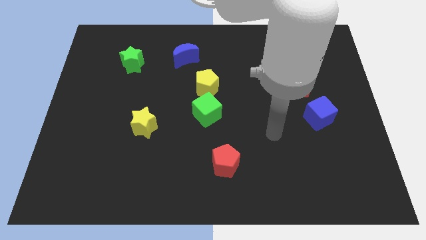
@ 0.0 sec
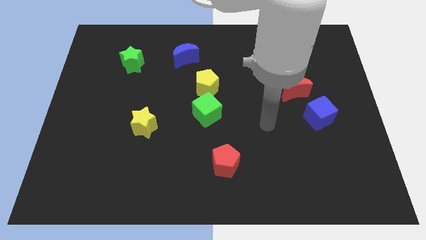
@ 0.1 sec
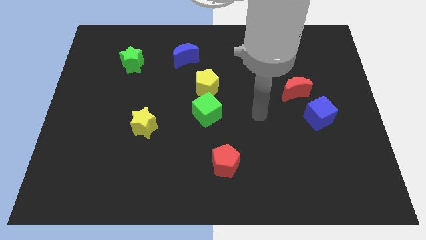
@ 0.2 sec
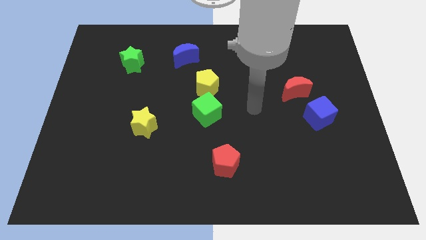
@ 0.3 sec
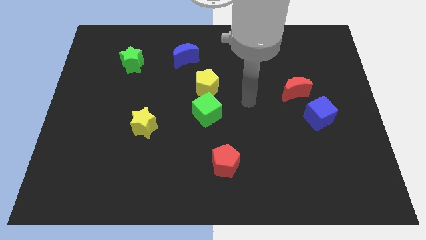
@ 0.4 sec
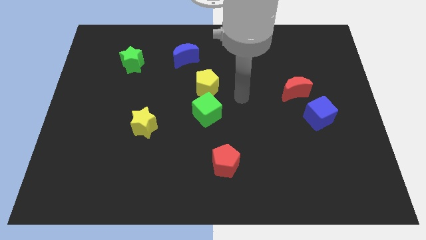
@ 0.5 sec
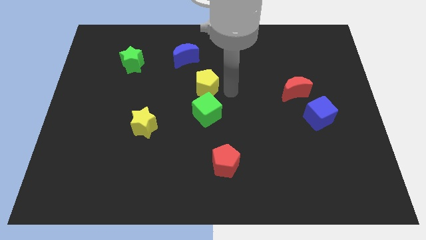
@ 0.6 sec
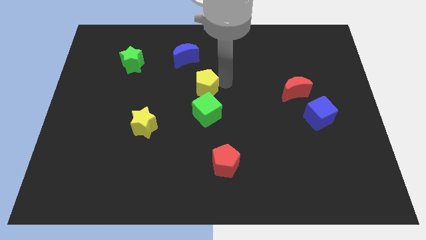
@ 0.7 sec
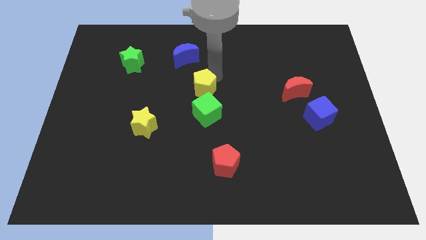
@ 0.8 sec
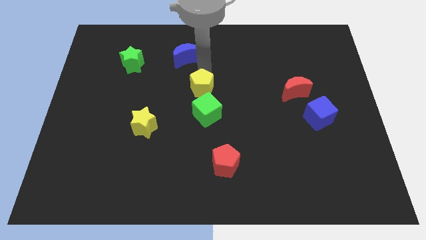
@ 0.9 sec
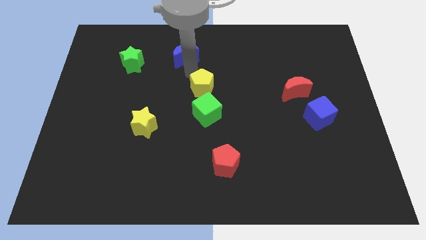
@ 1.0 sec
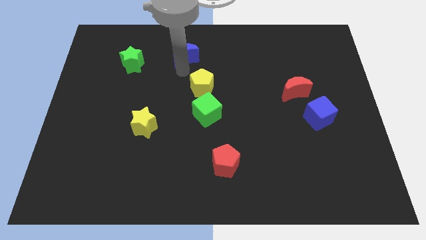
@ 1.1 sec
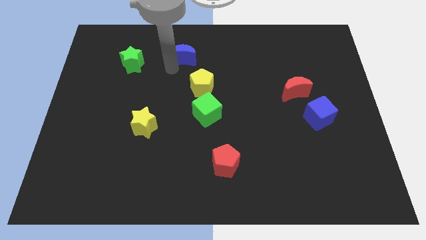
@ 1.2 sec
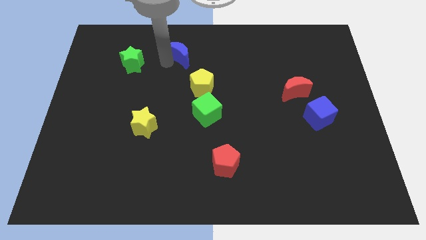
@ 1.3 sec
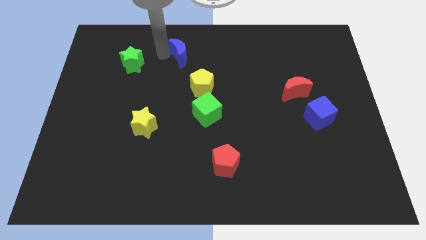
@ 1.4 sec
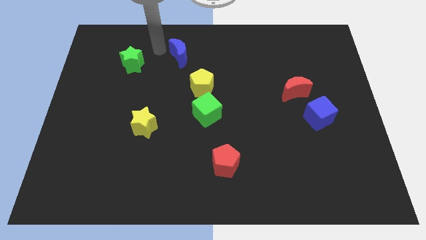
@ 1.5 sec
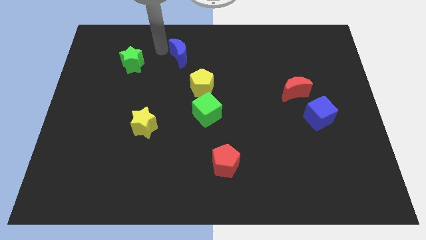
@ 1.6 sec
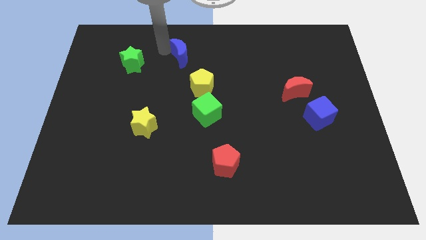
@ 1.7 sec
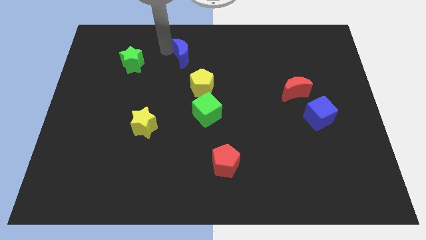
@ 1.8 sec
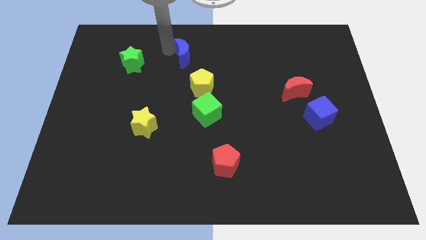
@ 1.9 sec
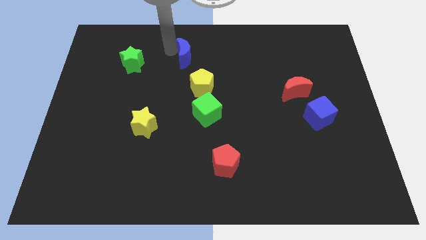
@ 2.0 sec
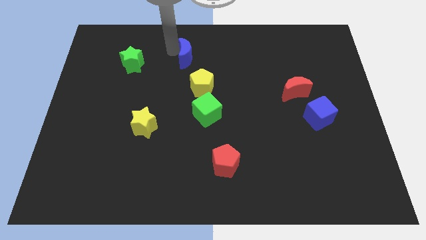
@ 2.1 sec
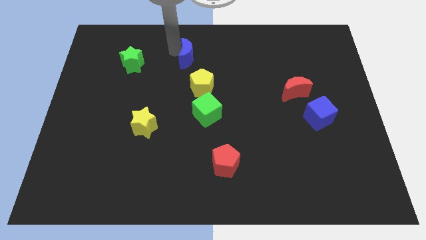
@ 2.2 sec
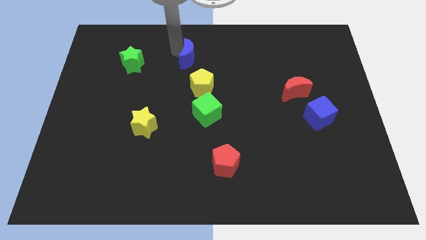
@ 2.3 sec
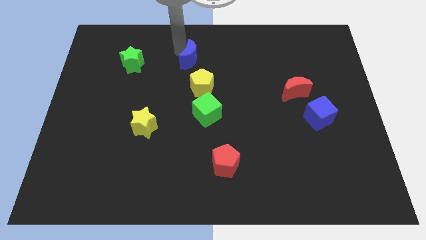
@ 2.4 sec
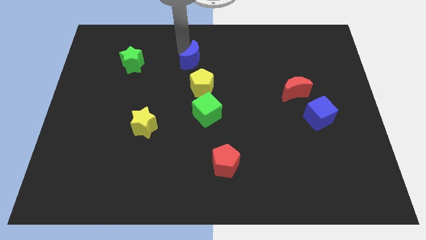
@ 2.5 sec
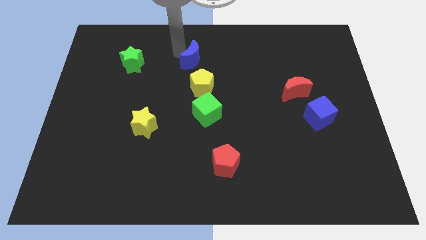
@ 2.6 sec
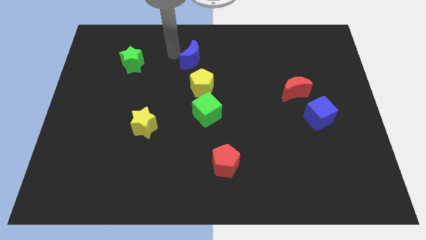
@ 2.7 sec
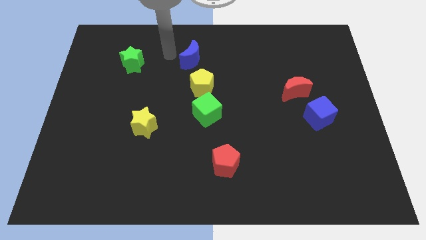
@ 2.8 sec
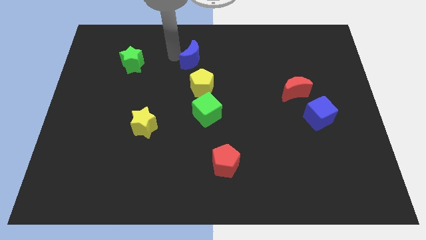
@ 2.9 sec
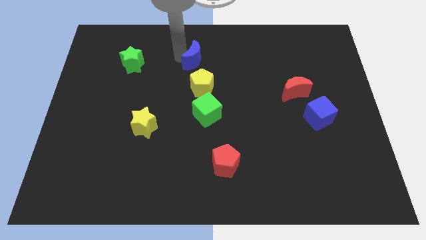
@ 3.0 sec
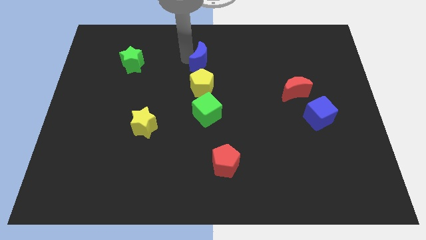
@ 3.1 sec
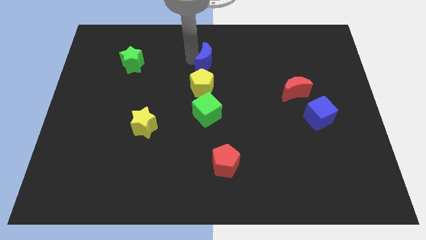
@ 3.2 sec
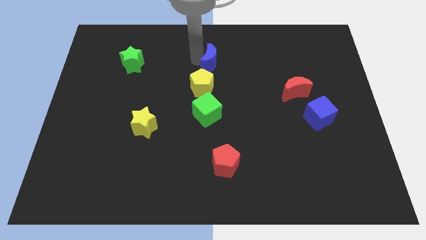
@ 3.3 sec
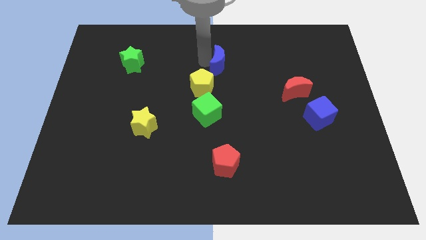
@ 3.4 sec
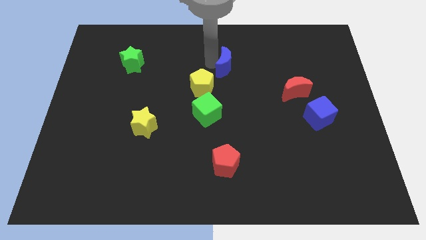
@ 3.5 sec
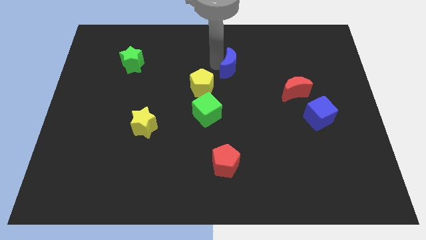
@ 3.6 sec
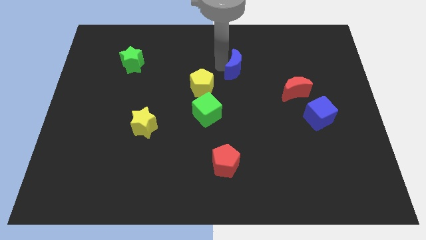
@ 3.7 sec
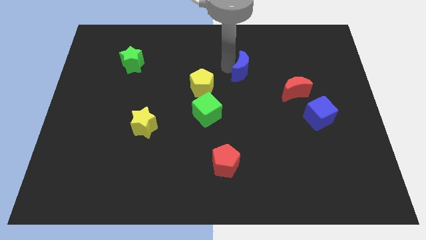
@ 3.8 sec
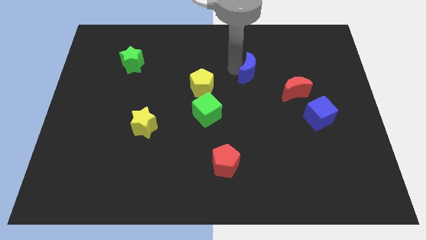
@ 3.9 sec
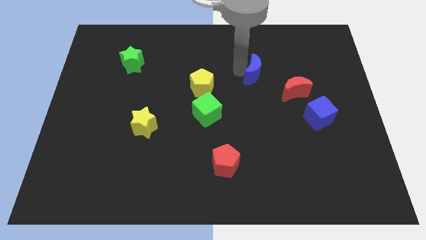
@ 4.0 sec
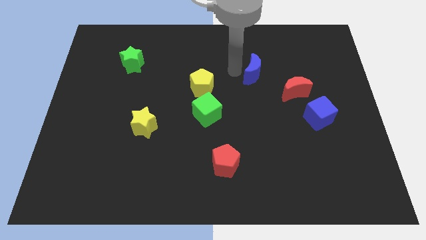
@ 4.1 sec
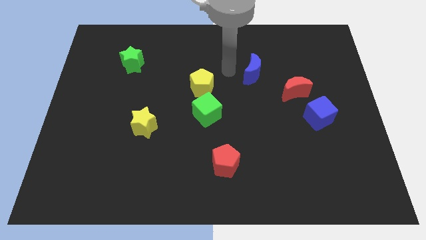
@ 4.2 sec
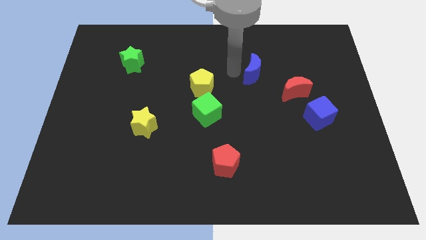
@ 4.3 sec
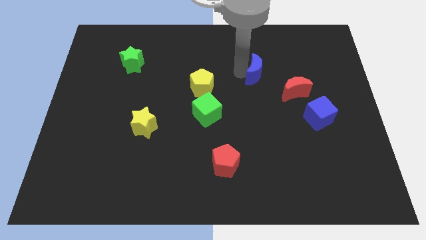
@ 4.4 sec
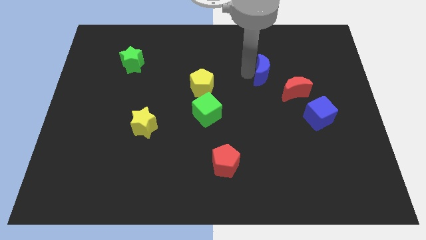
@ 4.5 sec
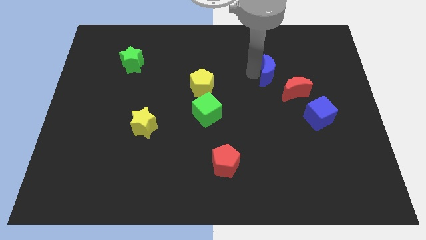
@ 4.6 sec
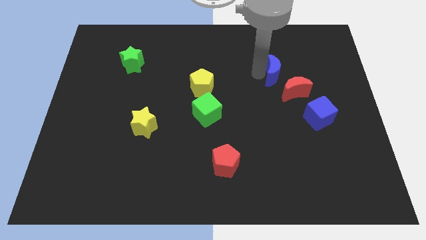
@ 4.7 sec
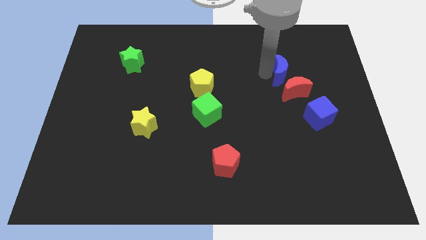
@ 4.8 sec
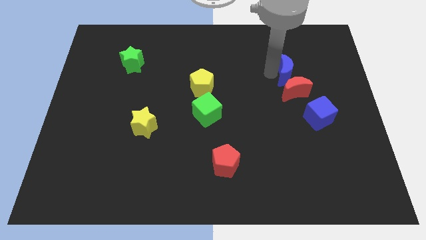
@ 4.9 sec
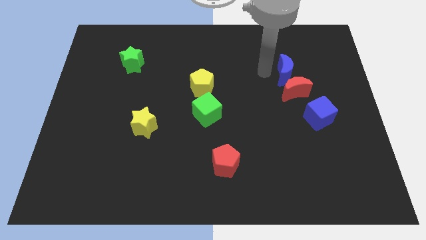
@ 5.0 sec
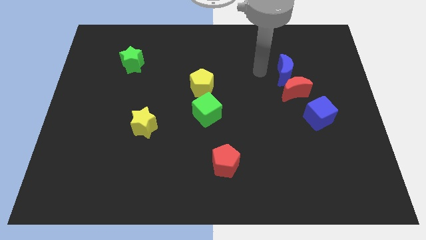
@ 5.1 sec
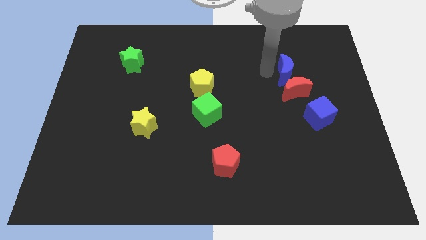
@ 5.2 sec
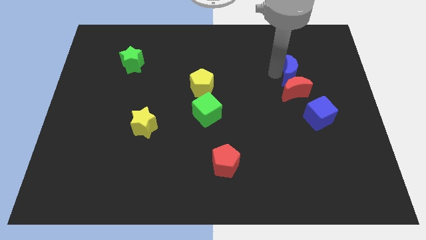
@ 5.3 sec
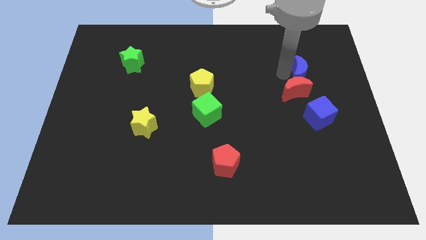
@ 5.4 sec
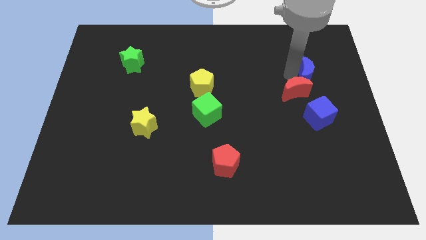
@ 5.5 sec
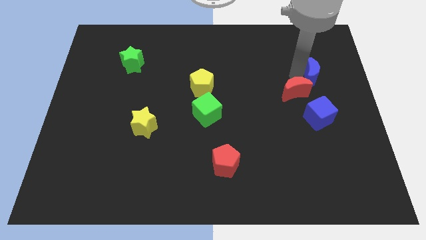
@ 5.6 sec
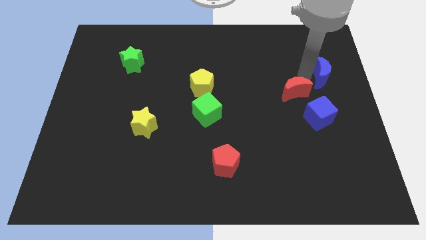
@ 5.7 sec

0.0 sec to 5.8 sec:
push the blue moon to the right side
